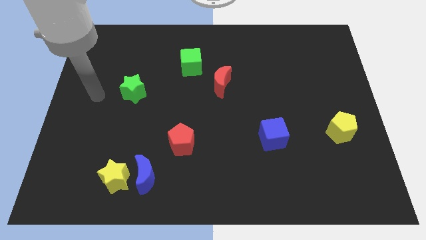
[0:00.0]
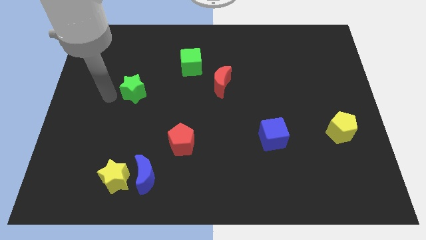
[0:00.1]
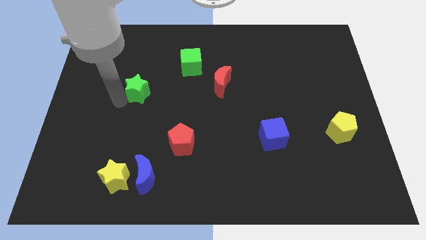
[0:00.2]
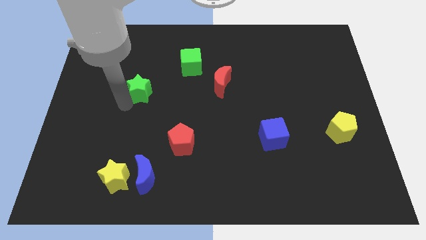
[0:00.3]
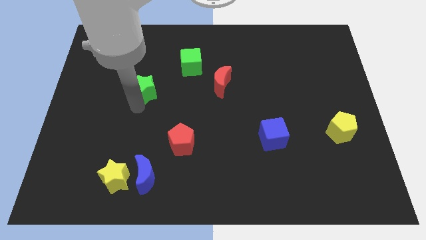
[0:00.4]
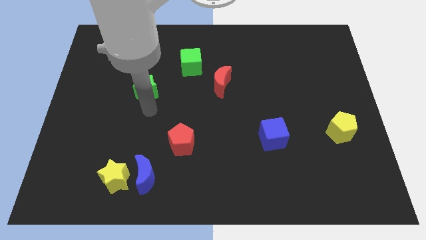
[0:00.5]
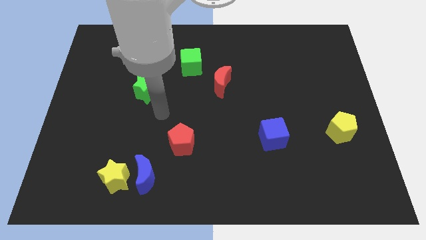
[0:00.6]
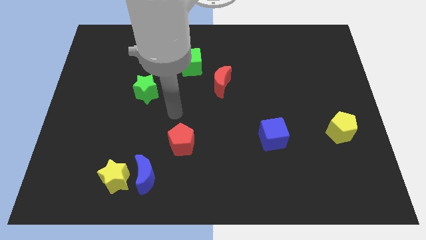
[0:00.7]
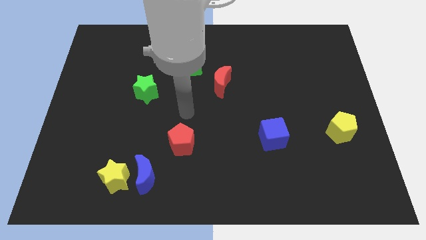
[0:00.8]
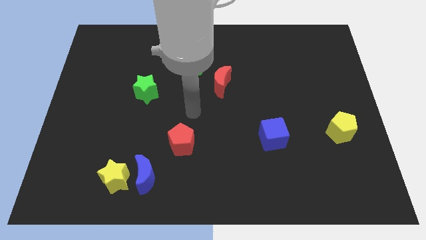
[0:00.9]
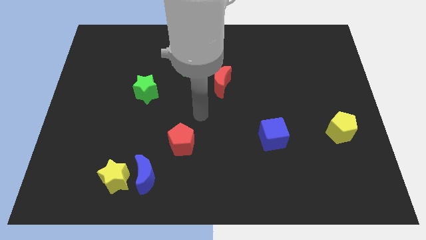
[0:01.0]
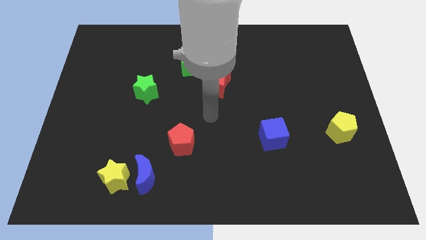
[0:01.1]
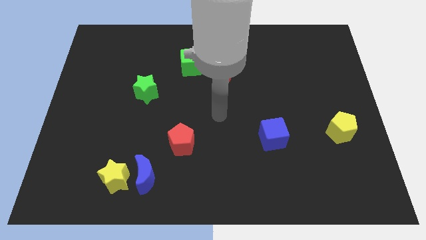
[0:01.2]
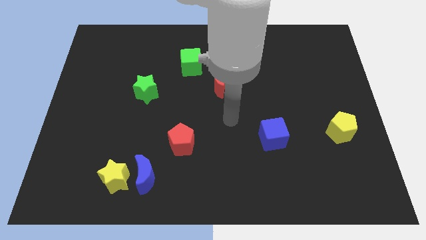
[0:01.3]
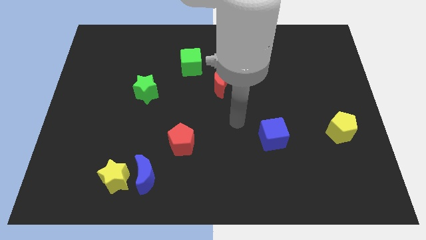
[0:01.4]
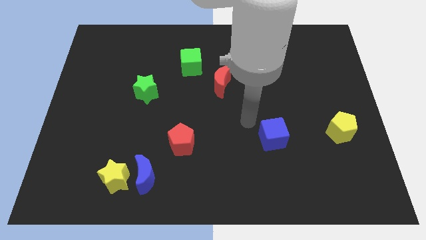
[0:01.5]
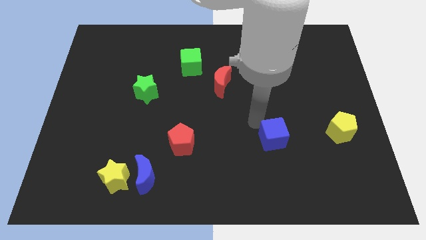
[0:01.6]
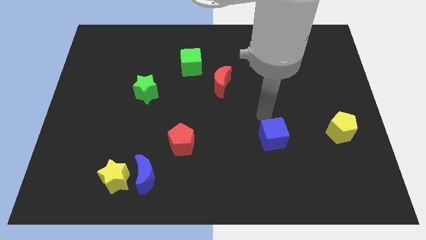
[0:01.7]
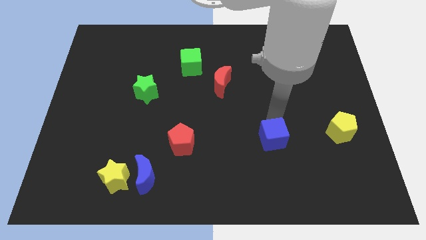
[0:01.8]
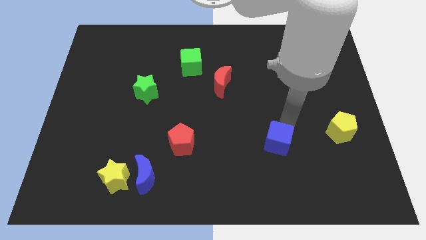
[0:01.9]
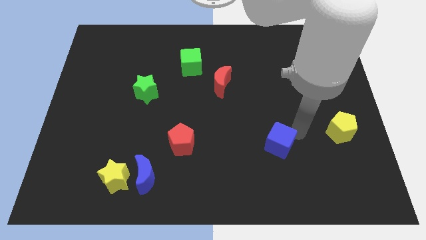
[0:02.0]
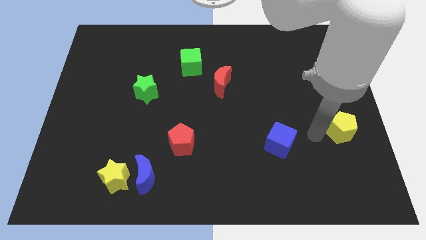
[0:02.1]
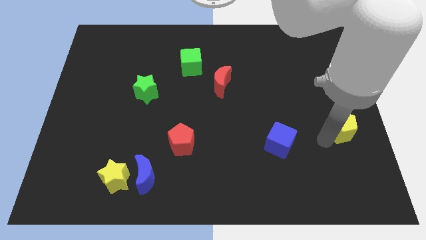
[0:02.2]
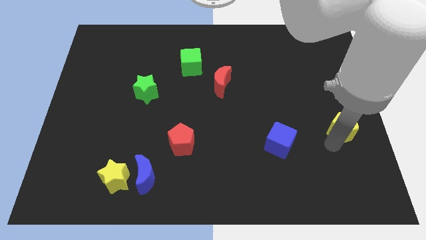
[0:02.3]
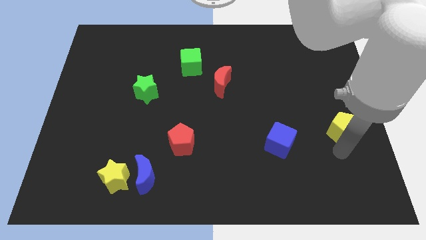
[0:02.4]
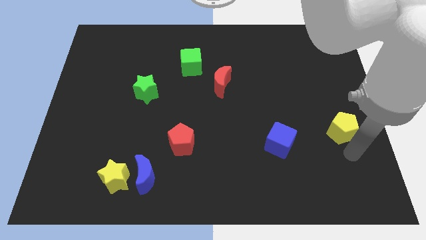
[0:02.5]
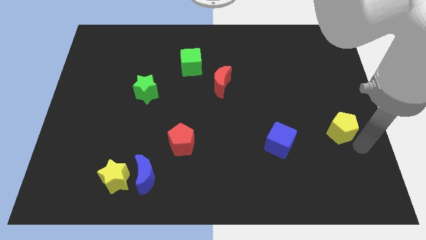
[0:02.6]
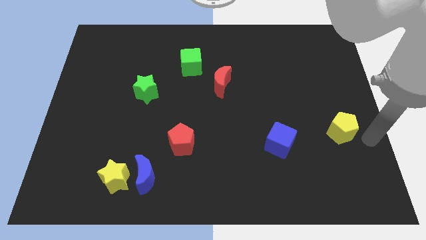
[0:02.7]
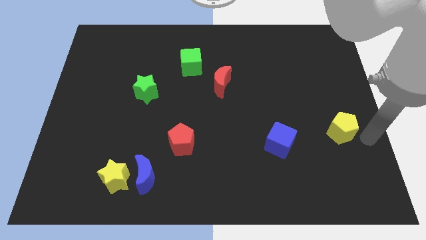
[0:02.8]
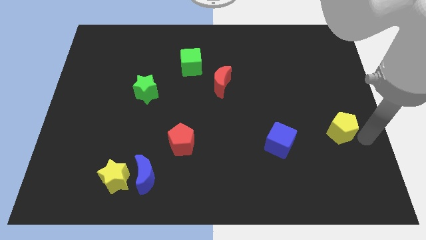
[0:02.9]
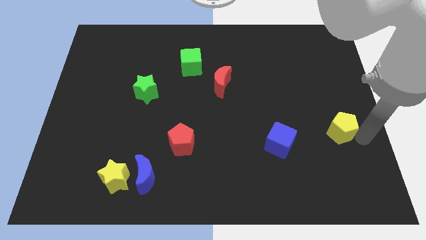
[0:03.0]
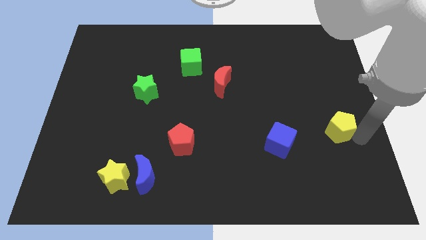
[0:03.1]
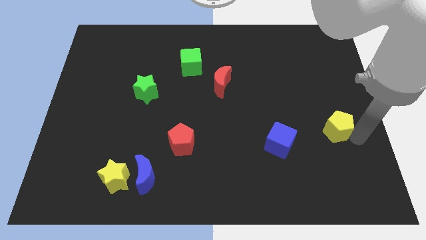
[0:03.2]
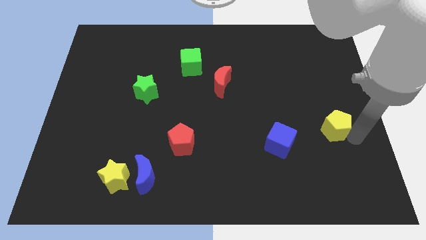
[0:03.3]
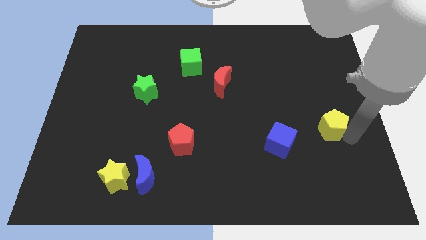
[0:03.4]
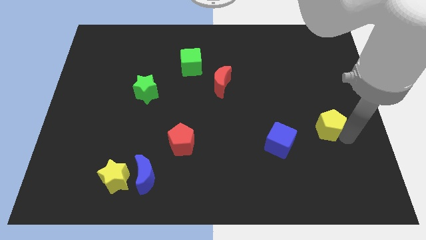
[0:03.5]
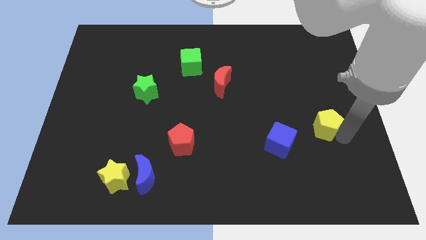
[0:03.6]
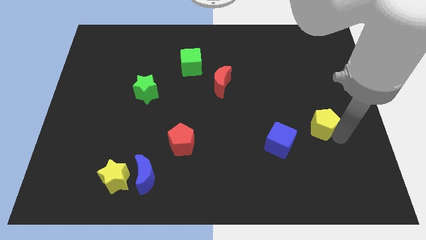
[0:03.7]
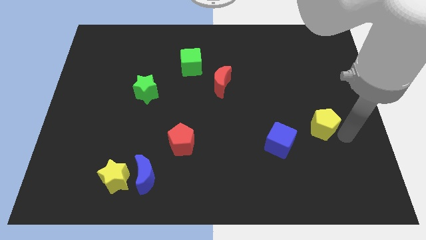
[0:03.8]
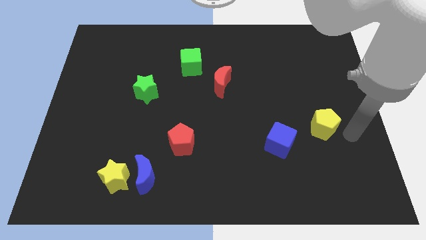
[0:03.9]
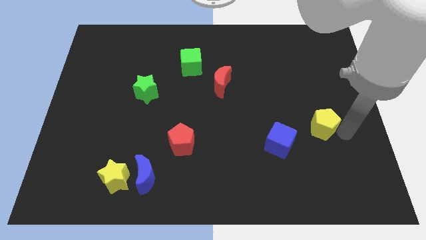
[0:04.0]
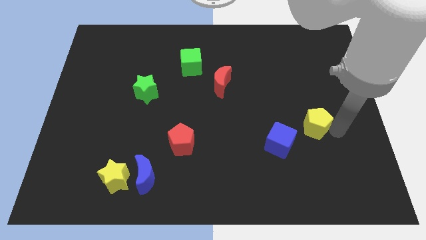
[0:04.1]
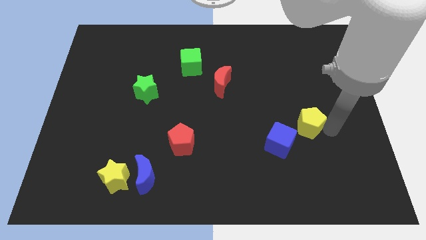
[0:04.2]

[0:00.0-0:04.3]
slightly push the yellow pentagon left

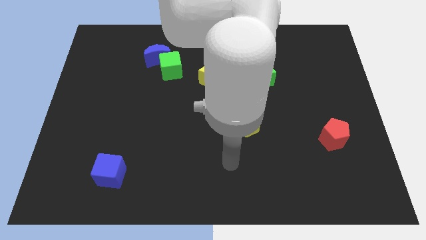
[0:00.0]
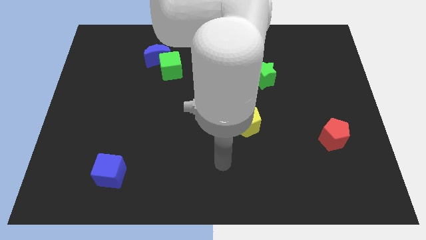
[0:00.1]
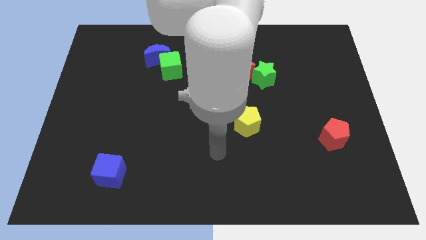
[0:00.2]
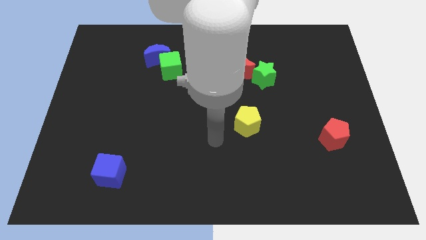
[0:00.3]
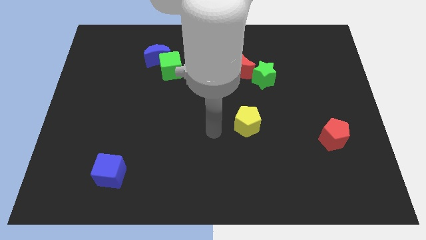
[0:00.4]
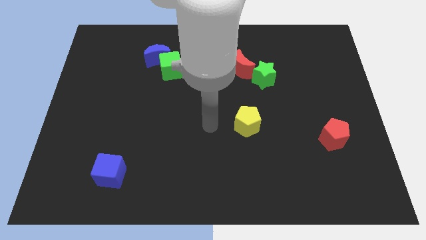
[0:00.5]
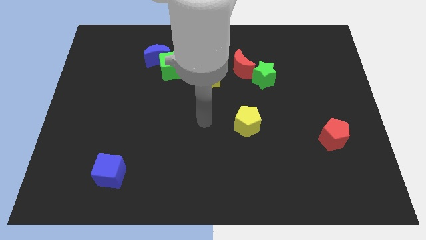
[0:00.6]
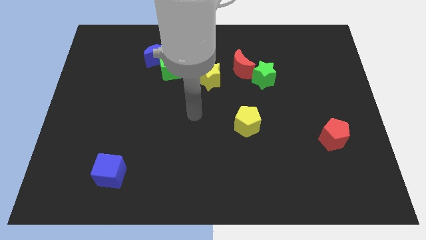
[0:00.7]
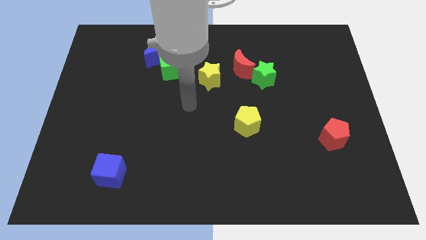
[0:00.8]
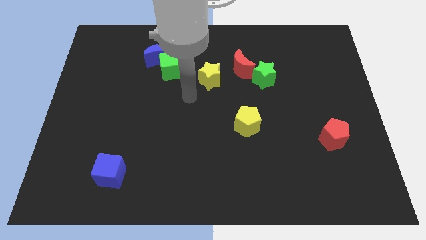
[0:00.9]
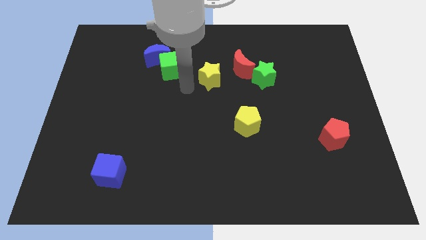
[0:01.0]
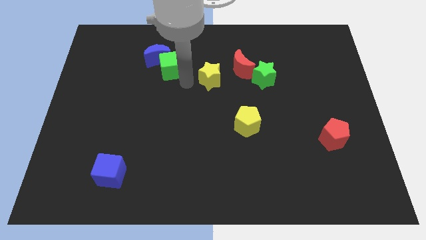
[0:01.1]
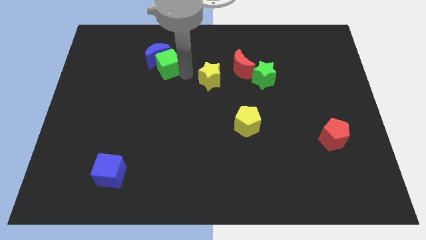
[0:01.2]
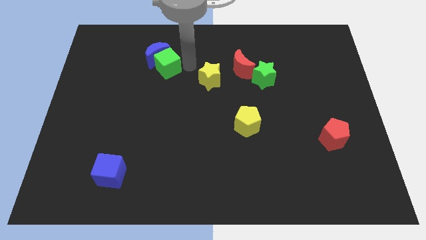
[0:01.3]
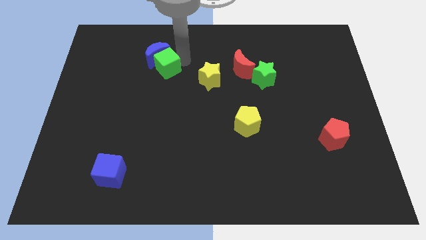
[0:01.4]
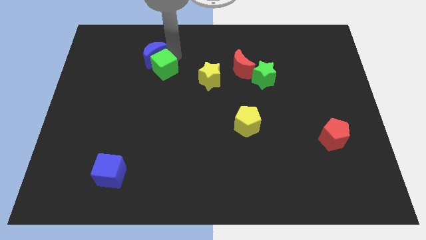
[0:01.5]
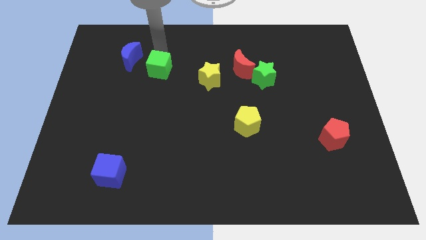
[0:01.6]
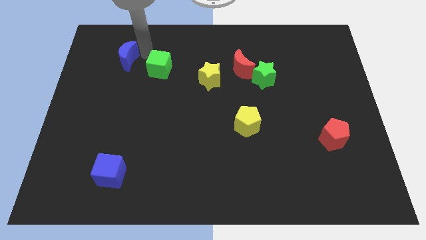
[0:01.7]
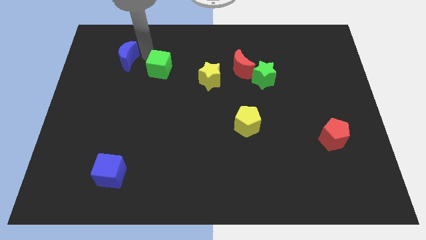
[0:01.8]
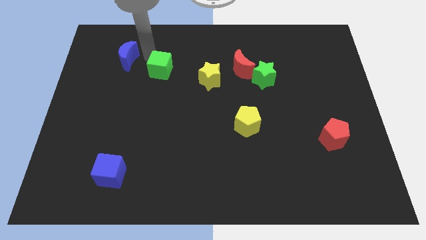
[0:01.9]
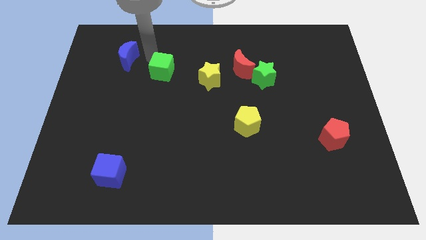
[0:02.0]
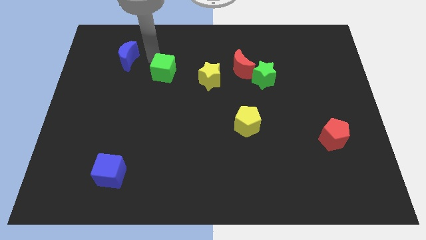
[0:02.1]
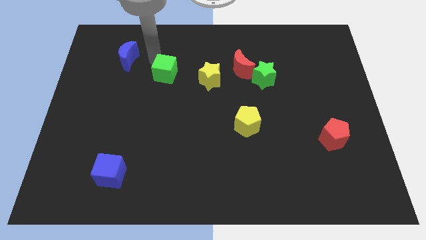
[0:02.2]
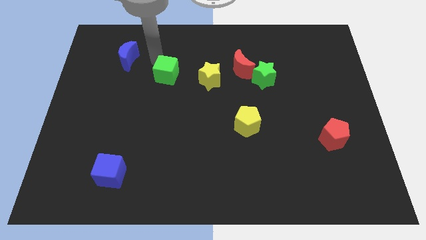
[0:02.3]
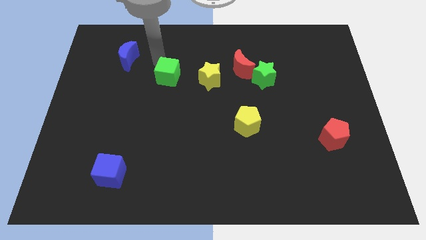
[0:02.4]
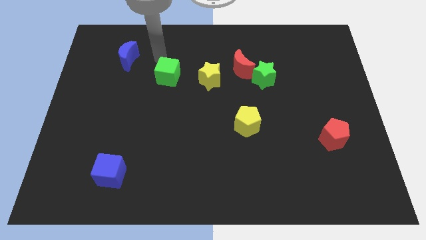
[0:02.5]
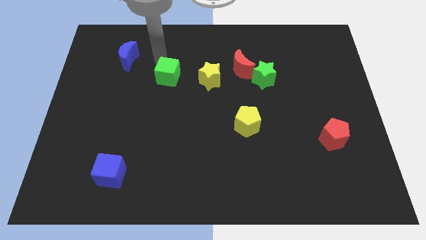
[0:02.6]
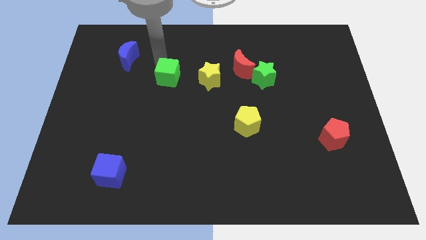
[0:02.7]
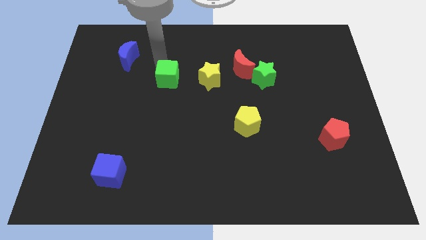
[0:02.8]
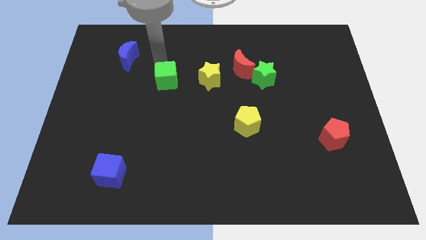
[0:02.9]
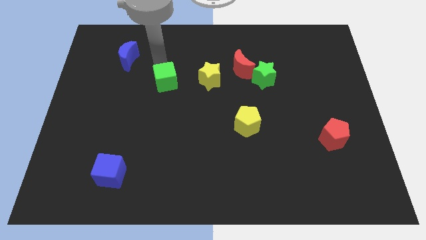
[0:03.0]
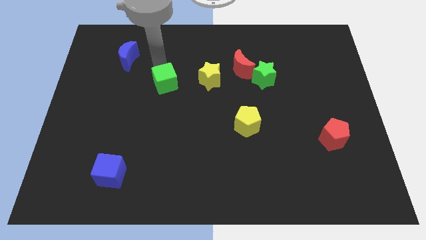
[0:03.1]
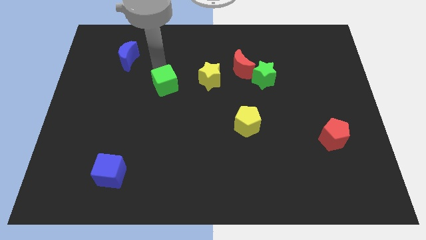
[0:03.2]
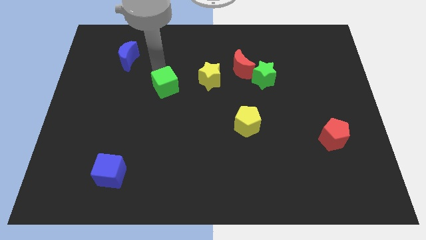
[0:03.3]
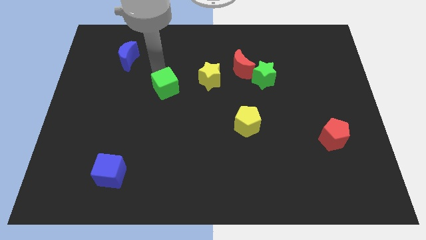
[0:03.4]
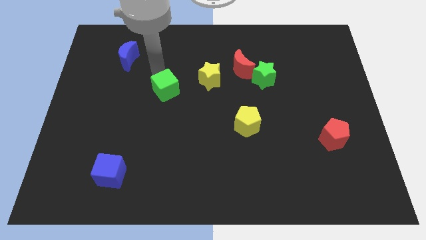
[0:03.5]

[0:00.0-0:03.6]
slightly slide the green cube downwards

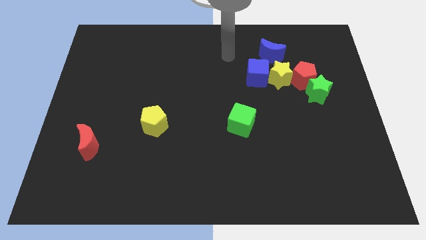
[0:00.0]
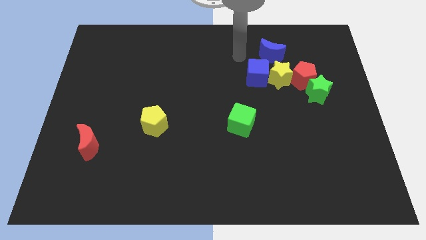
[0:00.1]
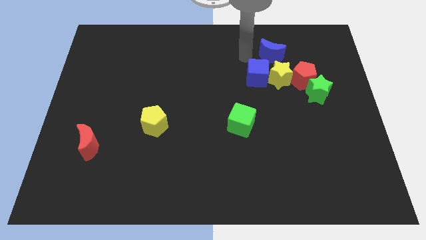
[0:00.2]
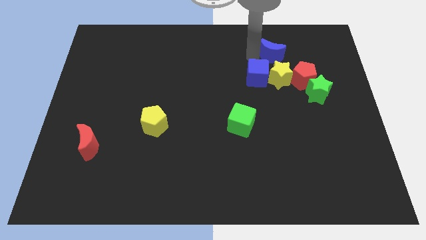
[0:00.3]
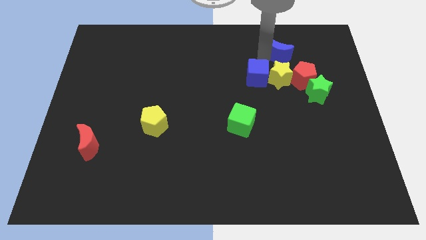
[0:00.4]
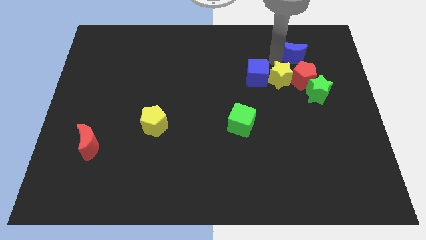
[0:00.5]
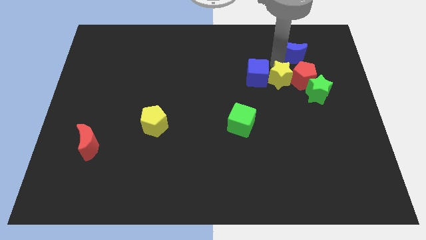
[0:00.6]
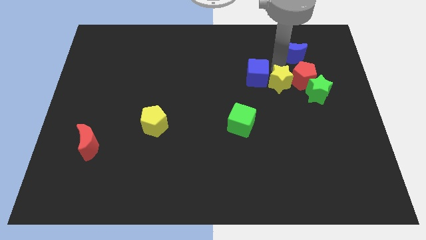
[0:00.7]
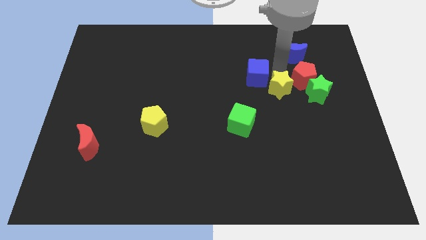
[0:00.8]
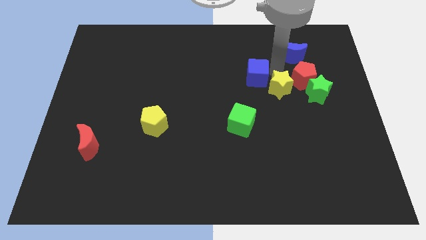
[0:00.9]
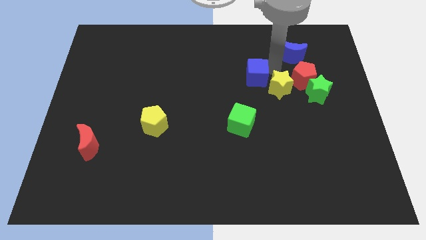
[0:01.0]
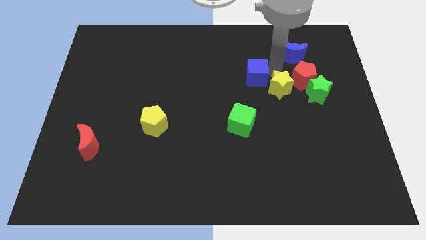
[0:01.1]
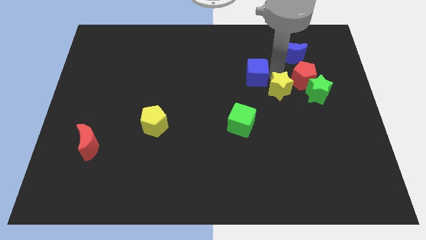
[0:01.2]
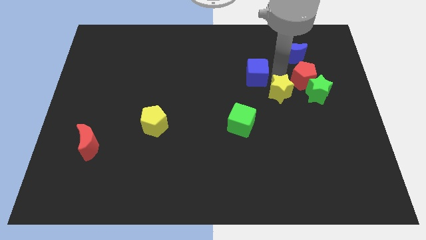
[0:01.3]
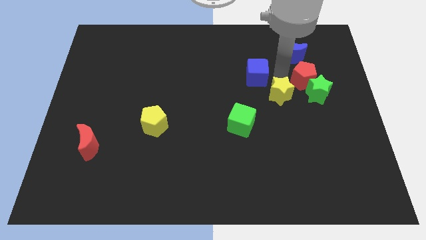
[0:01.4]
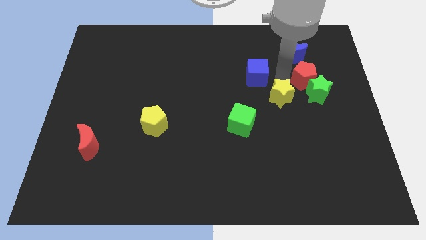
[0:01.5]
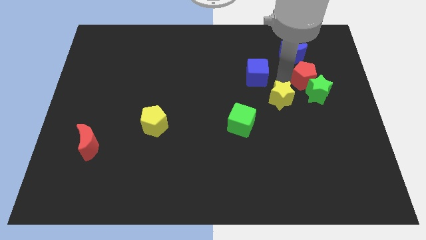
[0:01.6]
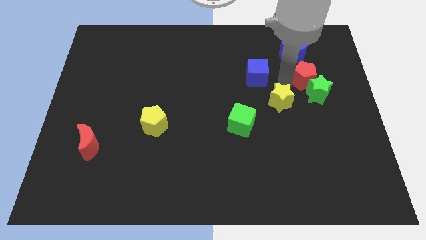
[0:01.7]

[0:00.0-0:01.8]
slightly move the yellow star down
